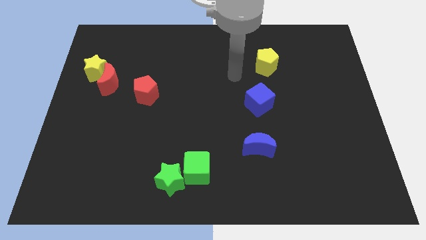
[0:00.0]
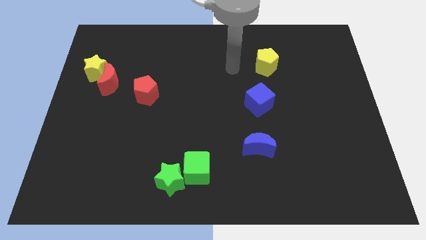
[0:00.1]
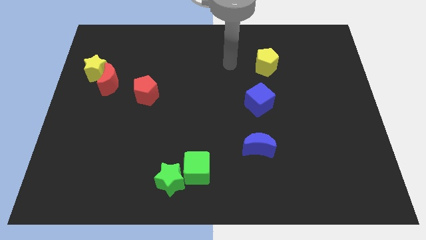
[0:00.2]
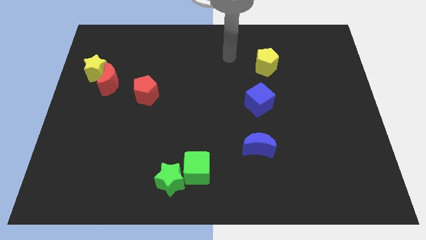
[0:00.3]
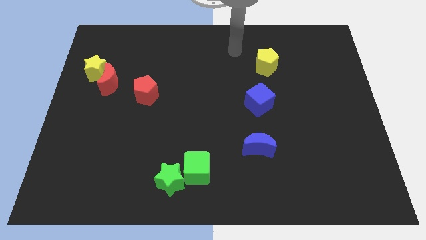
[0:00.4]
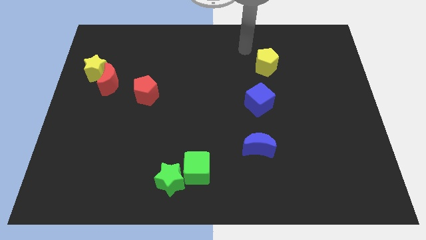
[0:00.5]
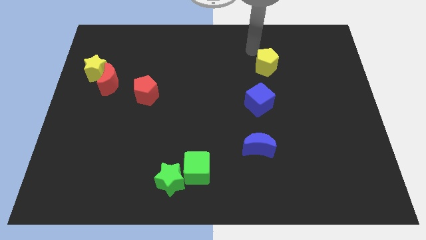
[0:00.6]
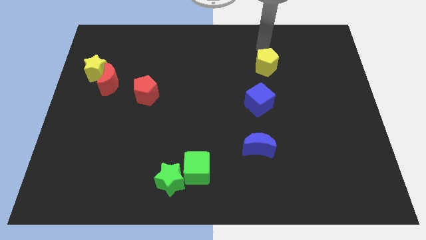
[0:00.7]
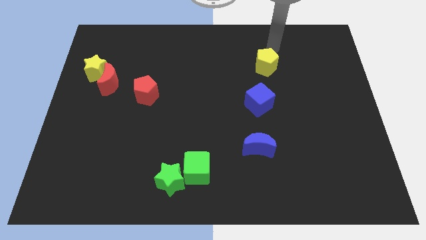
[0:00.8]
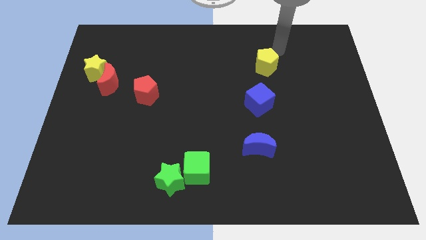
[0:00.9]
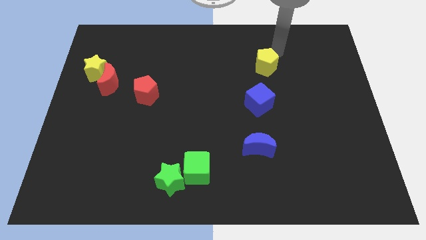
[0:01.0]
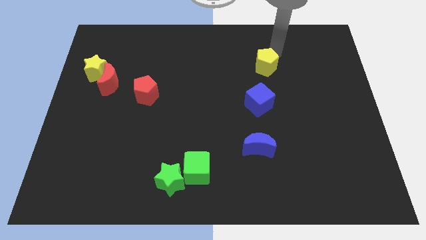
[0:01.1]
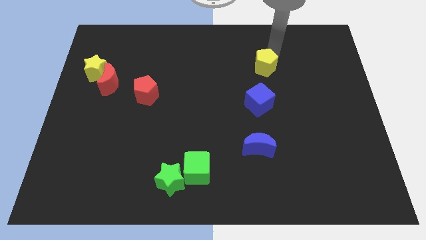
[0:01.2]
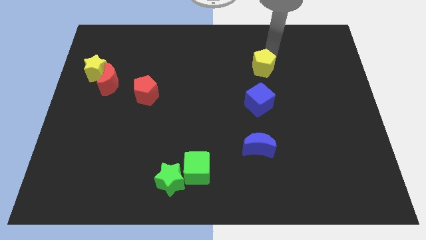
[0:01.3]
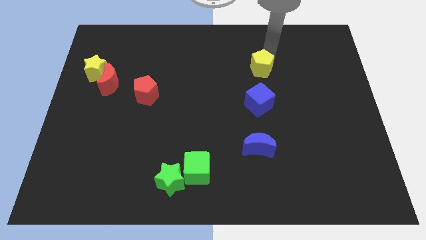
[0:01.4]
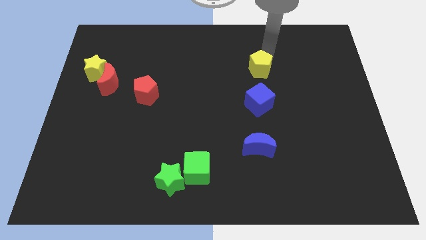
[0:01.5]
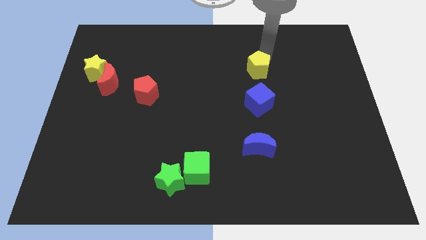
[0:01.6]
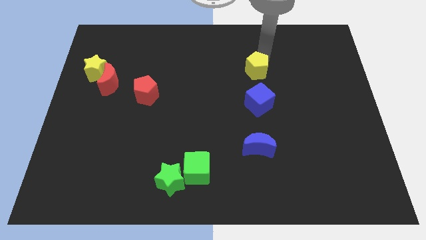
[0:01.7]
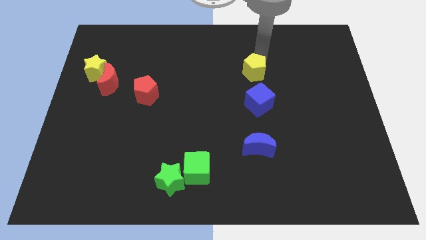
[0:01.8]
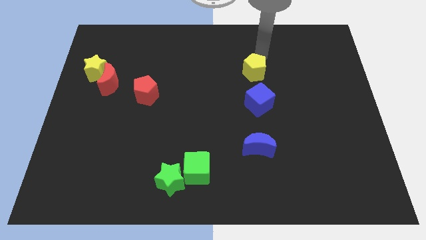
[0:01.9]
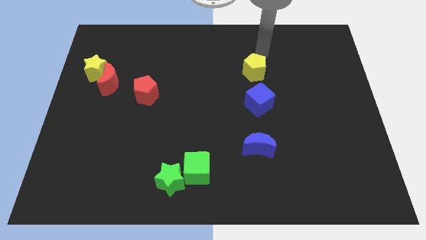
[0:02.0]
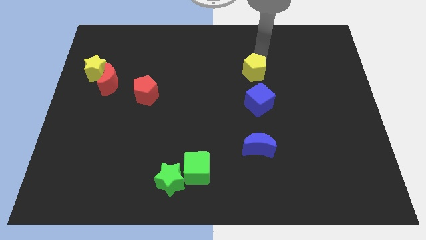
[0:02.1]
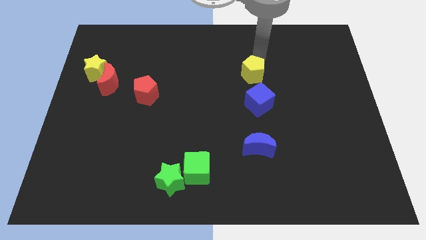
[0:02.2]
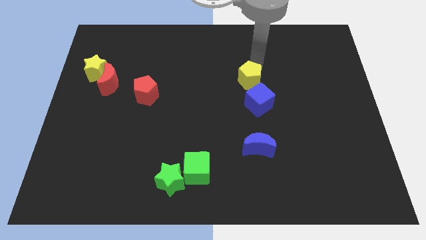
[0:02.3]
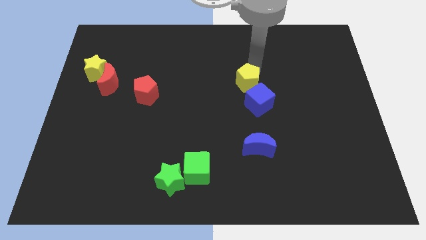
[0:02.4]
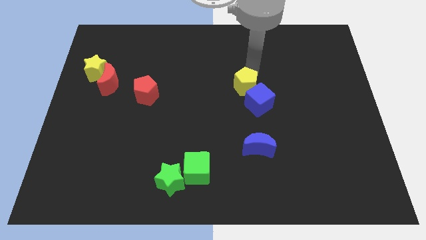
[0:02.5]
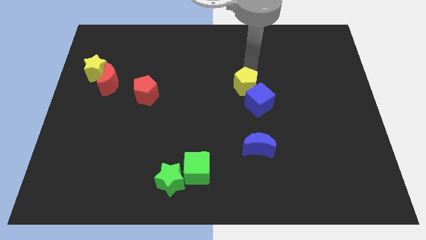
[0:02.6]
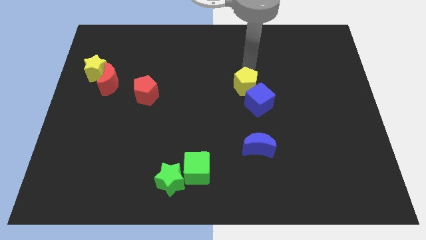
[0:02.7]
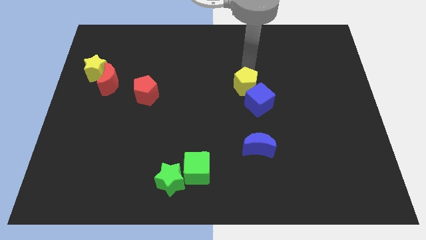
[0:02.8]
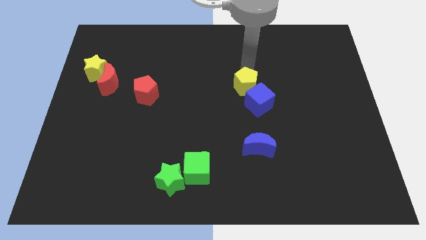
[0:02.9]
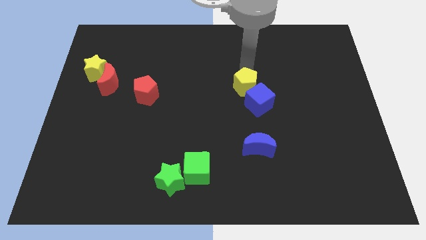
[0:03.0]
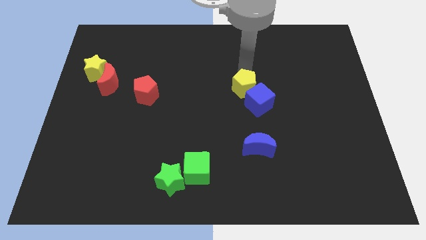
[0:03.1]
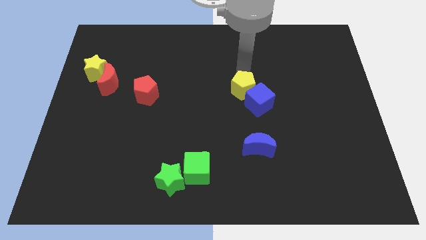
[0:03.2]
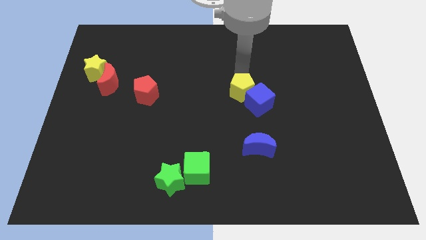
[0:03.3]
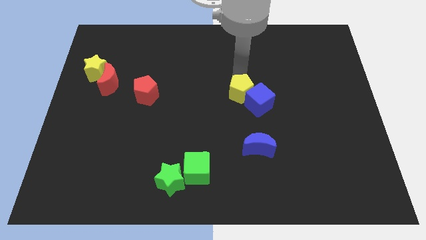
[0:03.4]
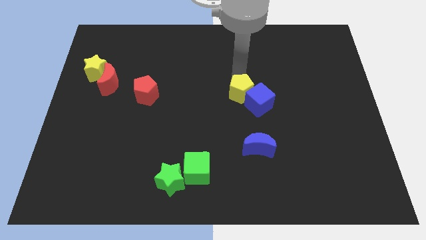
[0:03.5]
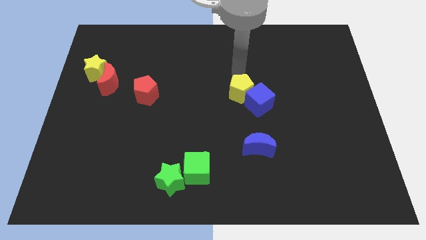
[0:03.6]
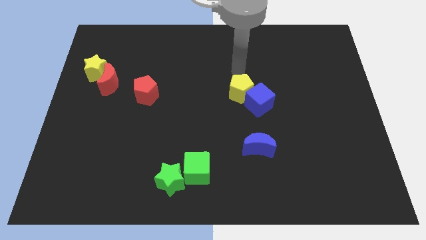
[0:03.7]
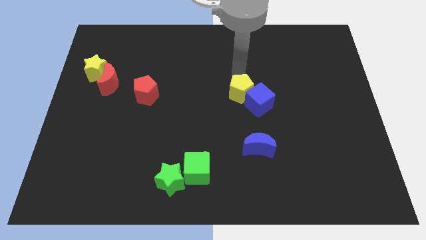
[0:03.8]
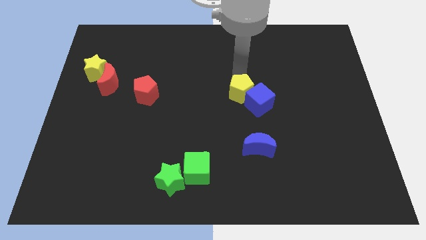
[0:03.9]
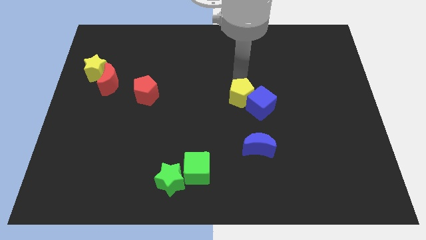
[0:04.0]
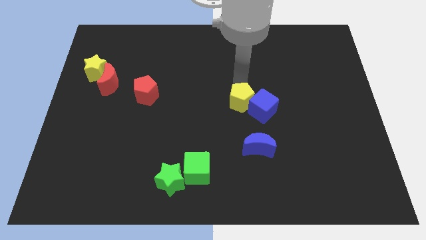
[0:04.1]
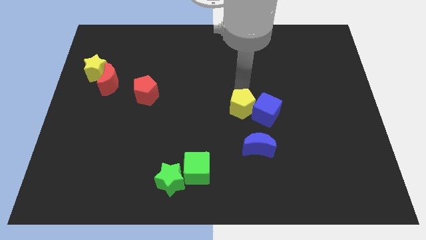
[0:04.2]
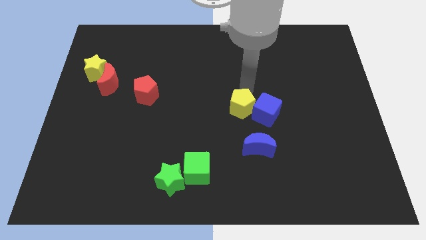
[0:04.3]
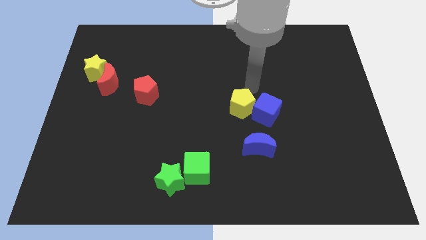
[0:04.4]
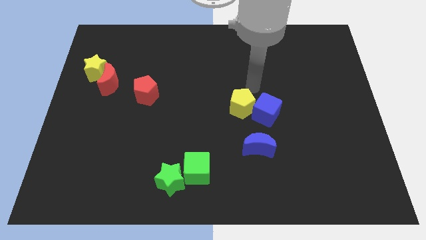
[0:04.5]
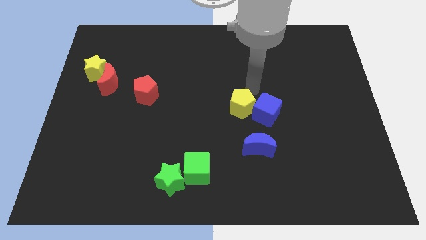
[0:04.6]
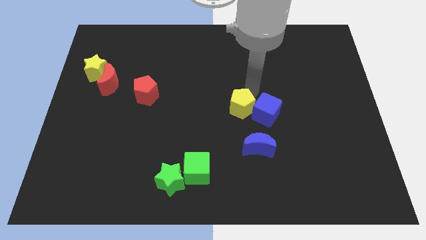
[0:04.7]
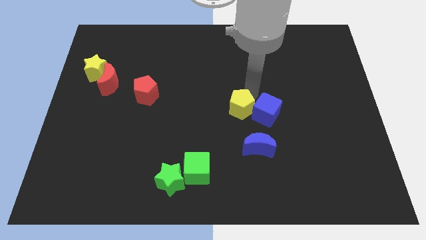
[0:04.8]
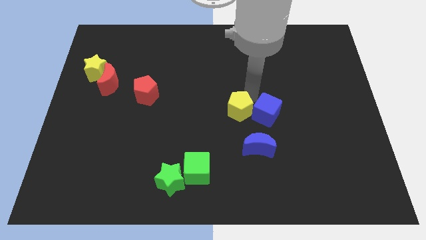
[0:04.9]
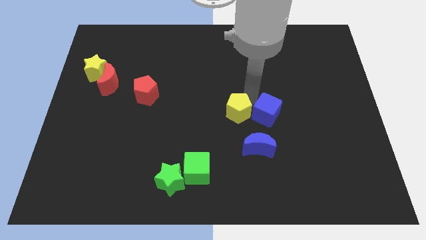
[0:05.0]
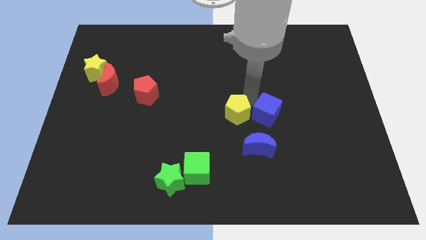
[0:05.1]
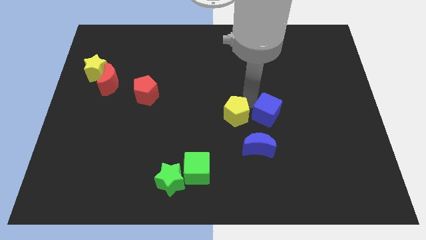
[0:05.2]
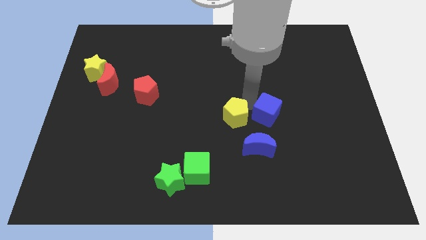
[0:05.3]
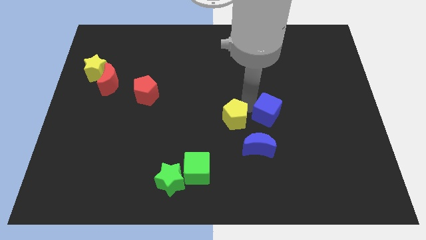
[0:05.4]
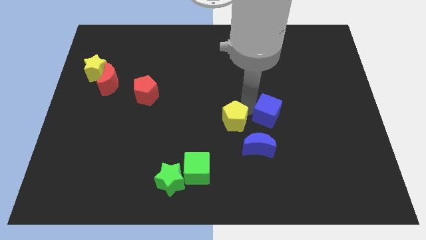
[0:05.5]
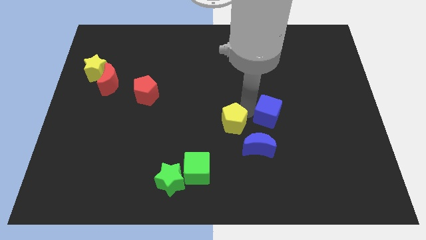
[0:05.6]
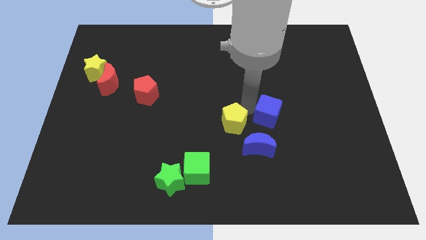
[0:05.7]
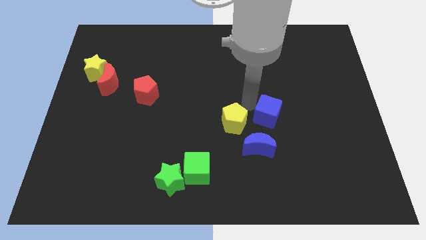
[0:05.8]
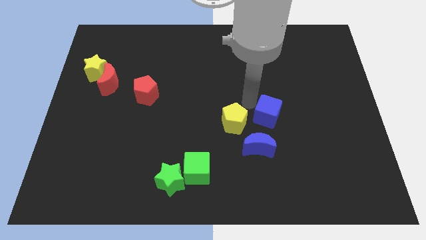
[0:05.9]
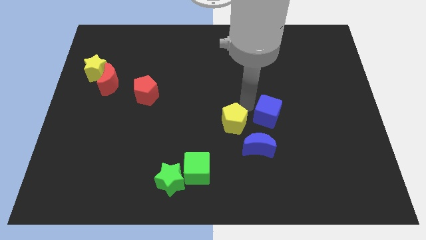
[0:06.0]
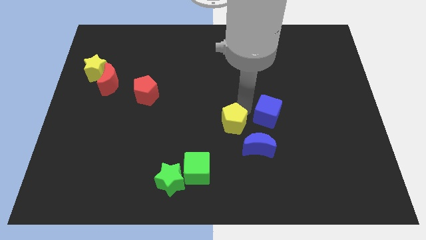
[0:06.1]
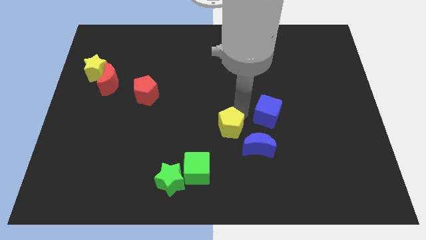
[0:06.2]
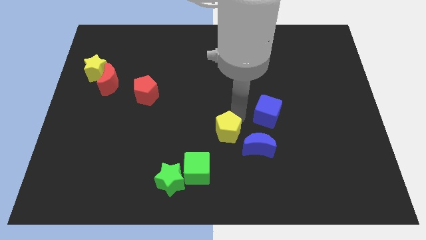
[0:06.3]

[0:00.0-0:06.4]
push the yellow pentagon to the left of the blue moon

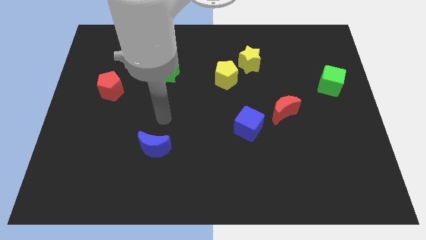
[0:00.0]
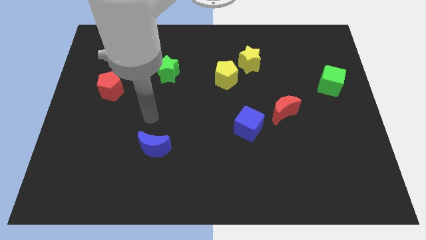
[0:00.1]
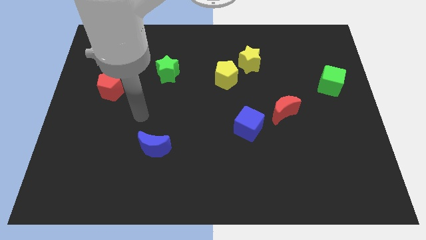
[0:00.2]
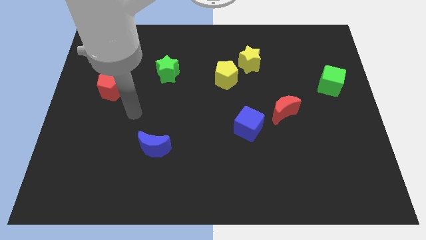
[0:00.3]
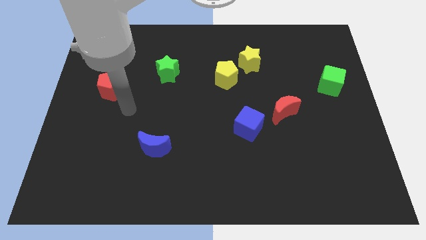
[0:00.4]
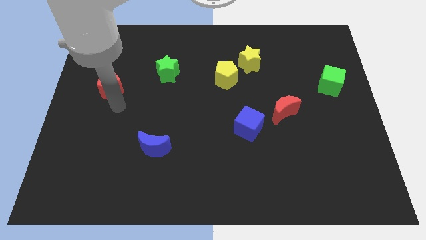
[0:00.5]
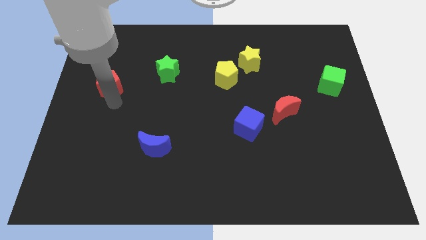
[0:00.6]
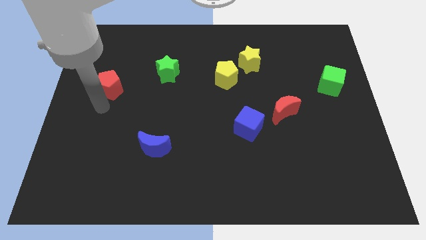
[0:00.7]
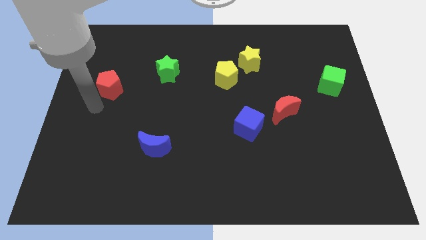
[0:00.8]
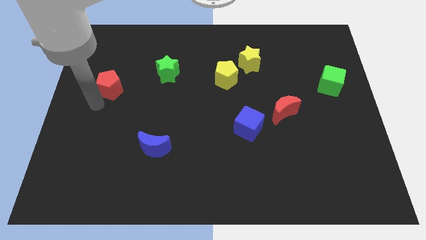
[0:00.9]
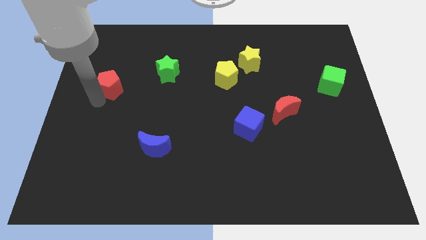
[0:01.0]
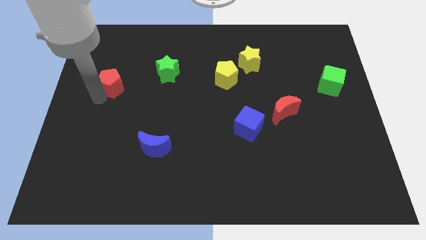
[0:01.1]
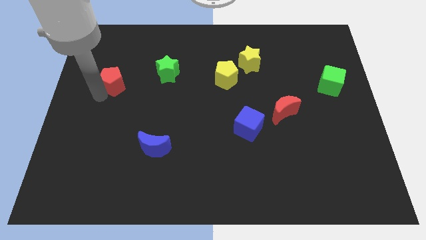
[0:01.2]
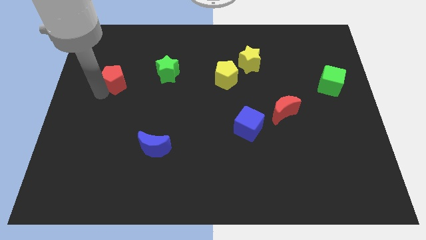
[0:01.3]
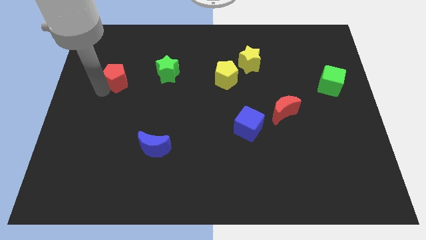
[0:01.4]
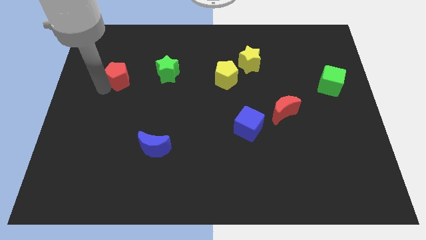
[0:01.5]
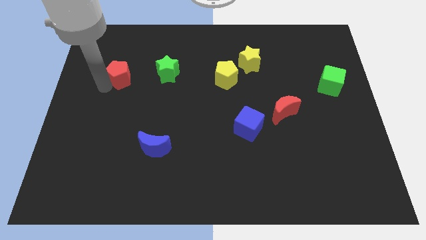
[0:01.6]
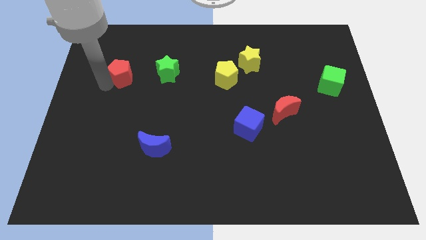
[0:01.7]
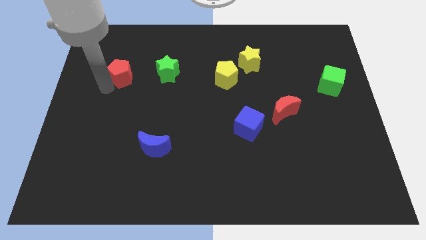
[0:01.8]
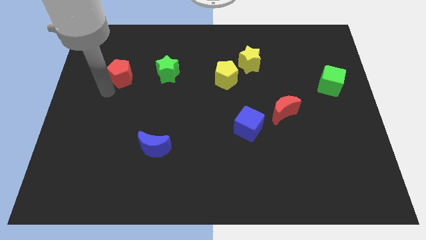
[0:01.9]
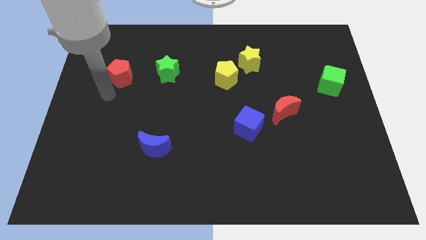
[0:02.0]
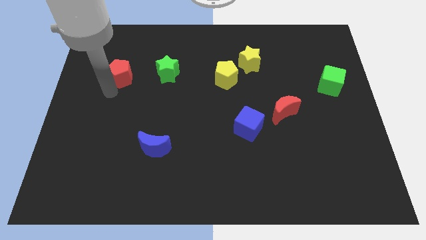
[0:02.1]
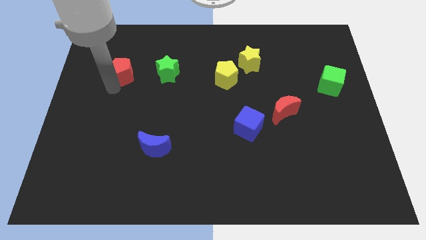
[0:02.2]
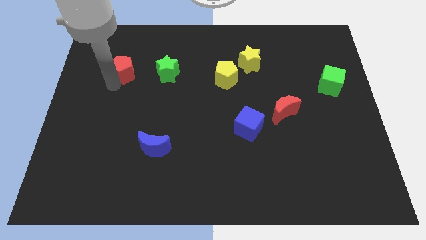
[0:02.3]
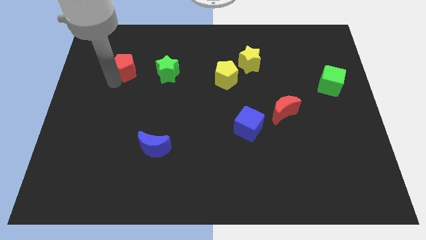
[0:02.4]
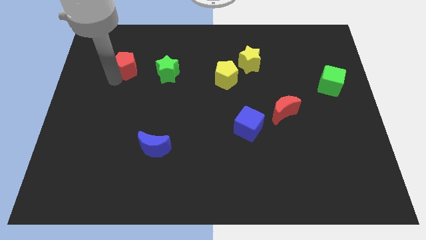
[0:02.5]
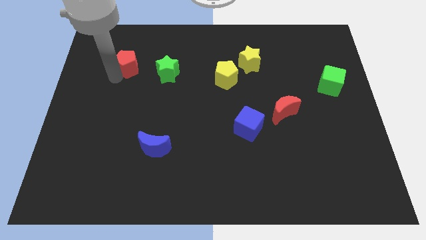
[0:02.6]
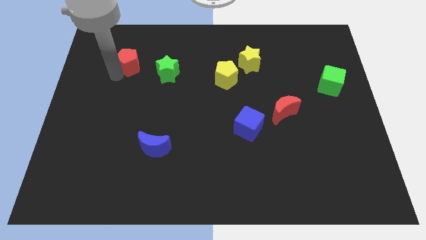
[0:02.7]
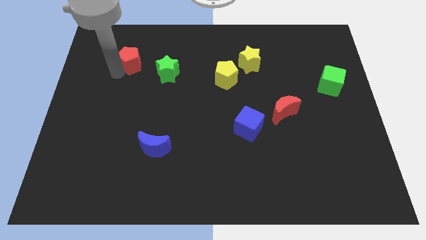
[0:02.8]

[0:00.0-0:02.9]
put the red pentagon diagonally up and to the left of the green star
